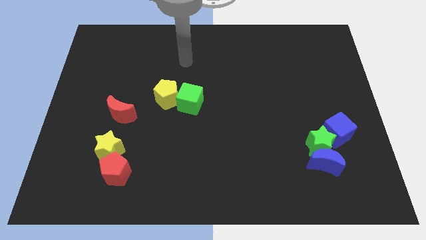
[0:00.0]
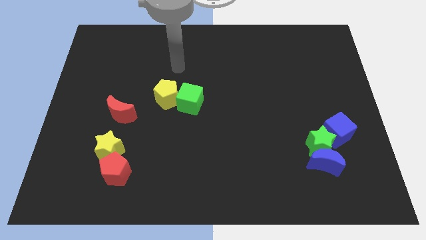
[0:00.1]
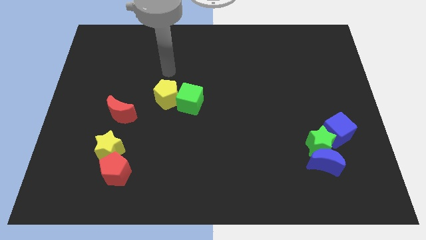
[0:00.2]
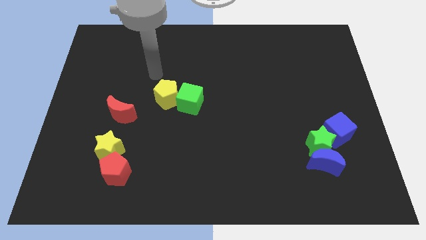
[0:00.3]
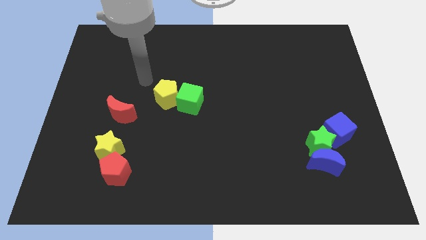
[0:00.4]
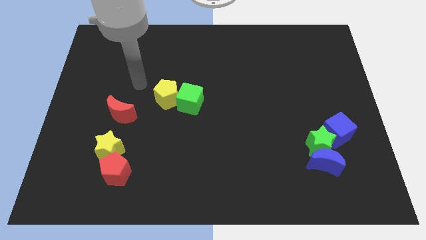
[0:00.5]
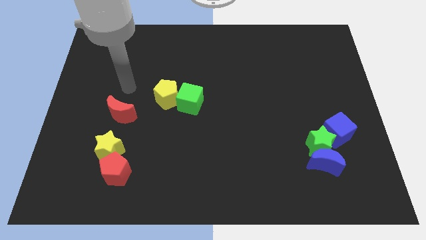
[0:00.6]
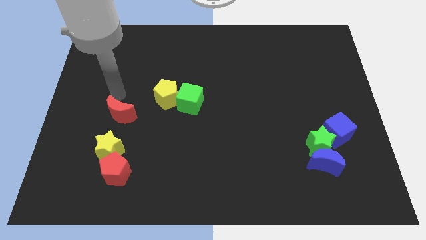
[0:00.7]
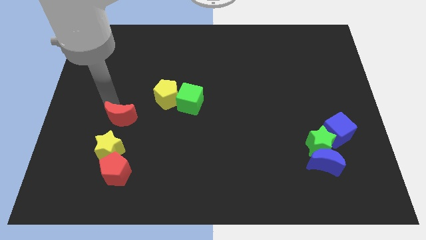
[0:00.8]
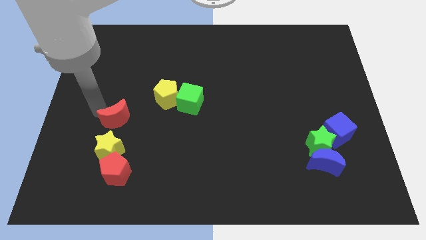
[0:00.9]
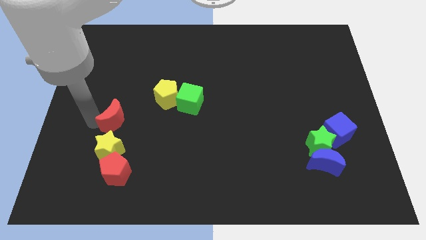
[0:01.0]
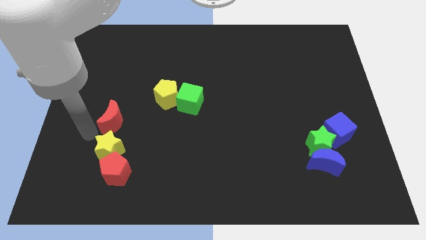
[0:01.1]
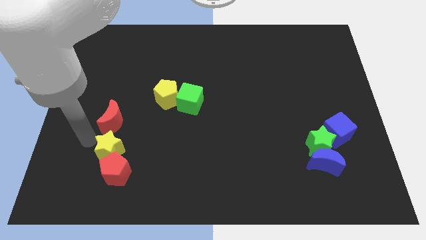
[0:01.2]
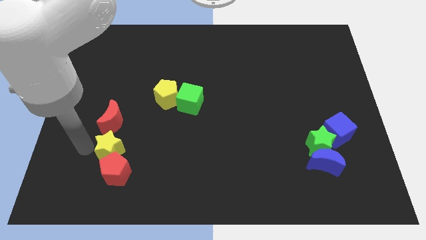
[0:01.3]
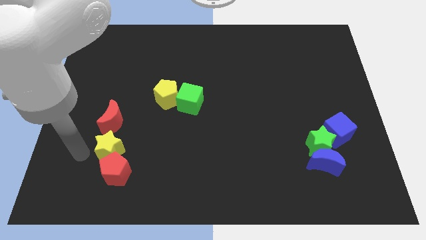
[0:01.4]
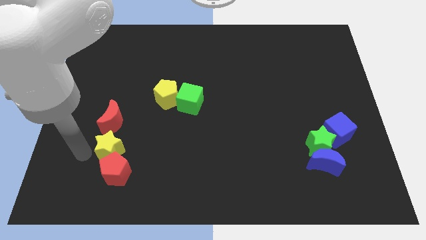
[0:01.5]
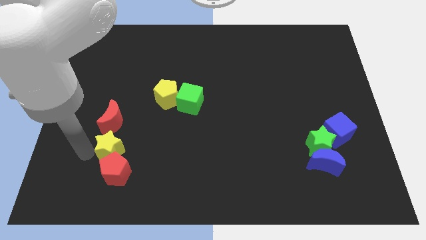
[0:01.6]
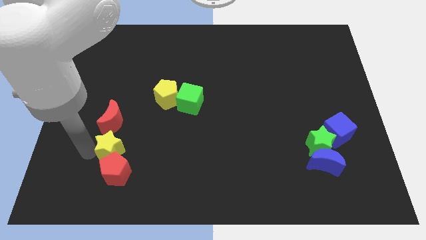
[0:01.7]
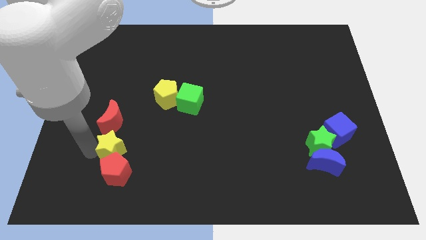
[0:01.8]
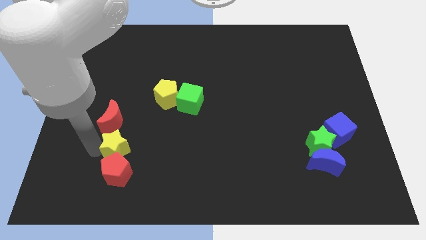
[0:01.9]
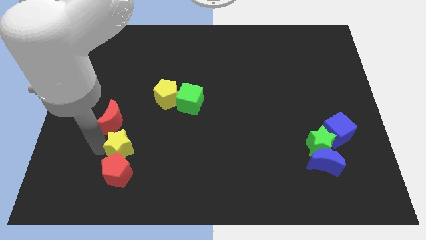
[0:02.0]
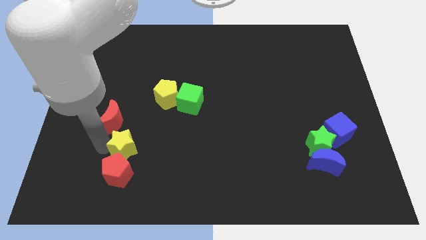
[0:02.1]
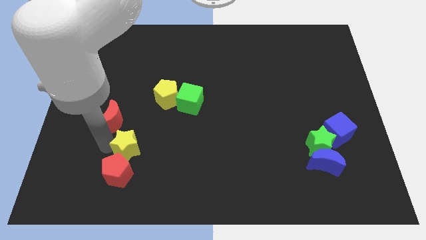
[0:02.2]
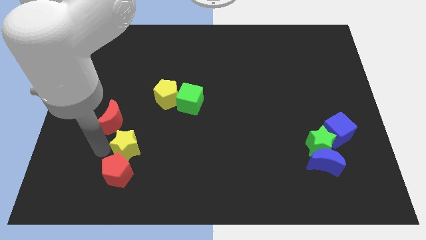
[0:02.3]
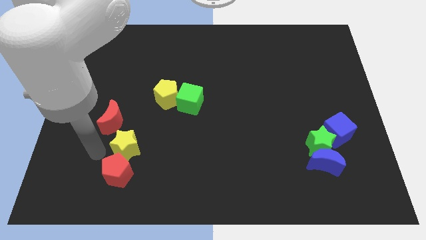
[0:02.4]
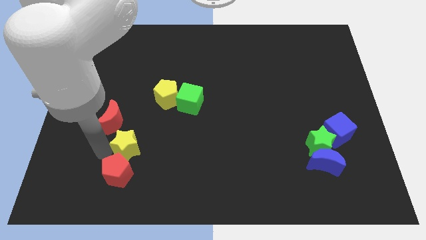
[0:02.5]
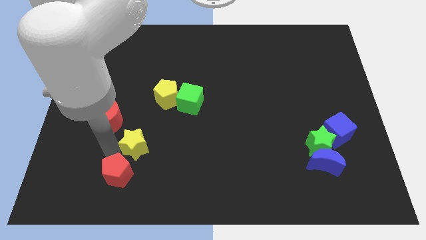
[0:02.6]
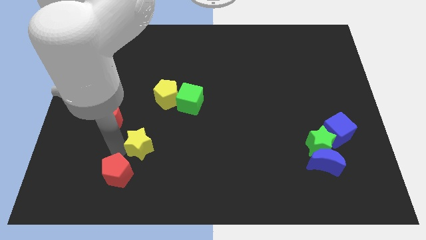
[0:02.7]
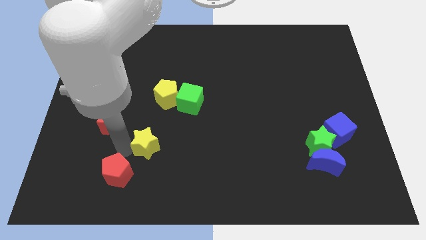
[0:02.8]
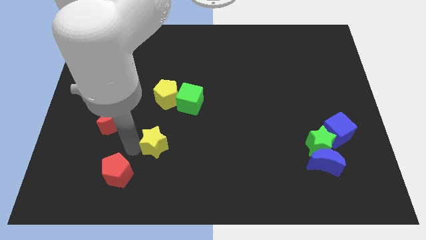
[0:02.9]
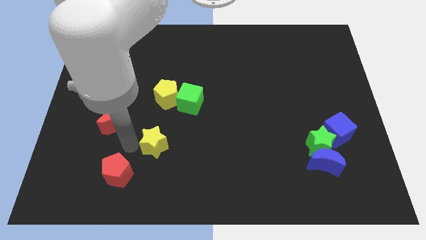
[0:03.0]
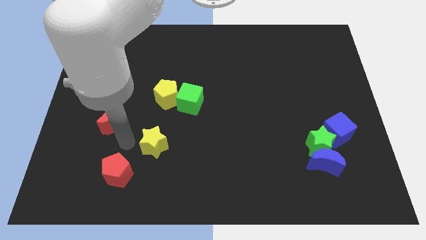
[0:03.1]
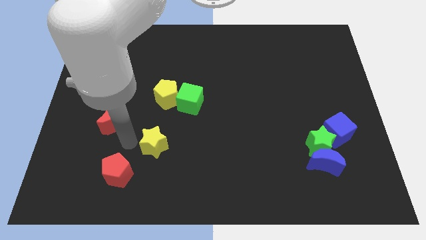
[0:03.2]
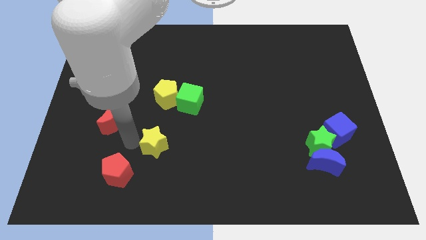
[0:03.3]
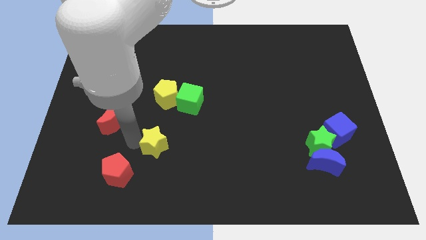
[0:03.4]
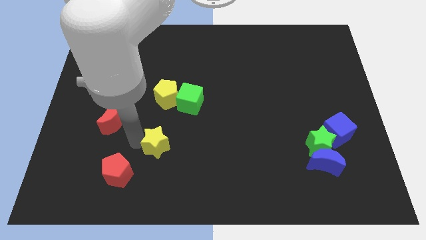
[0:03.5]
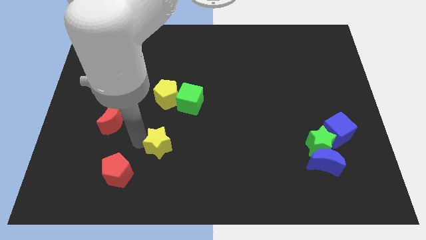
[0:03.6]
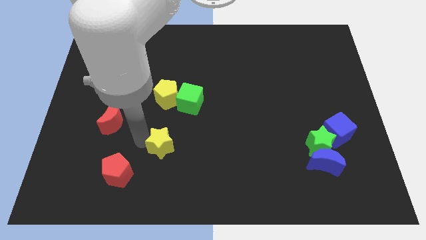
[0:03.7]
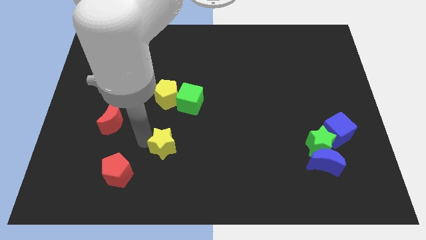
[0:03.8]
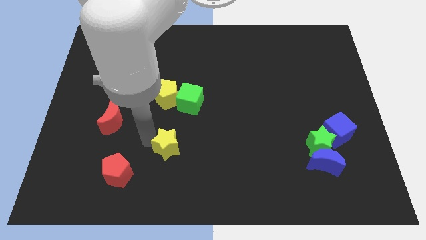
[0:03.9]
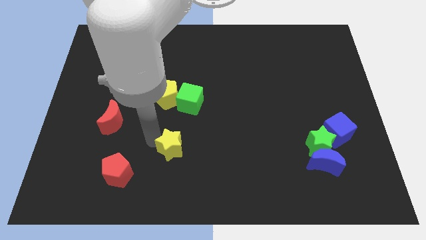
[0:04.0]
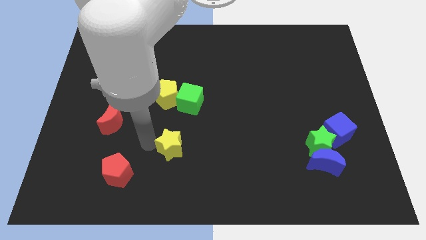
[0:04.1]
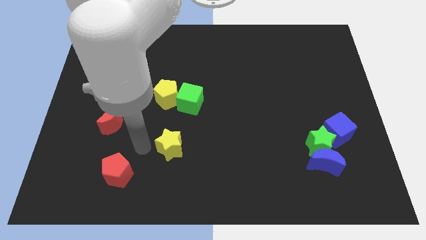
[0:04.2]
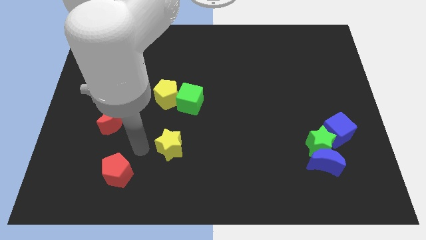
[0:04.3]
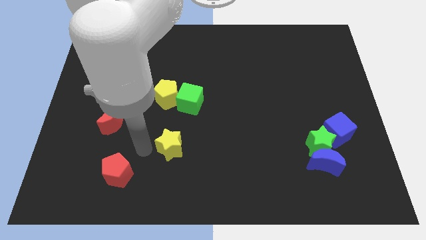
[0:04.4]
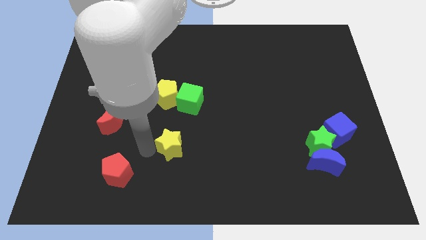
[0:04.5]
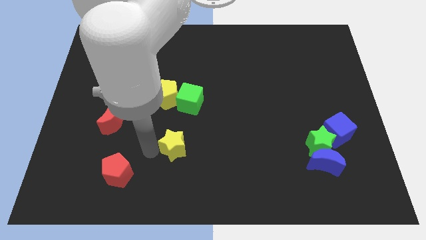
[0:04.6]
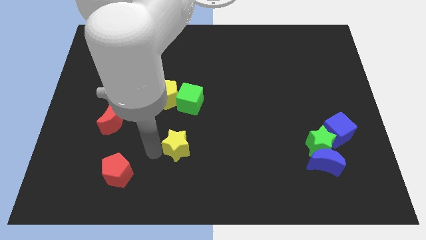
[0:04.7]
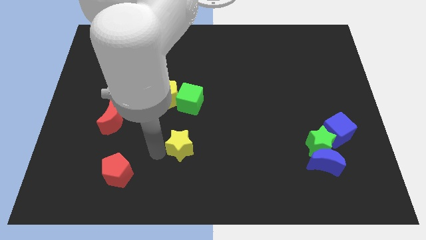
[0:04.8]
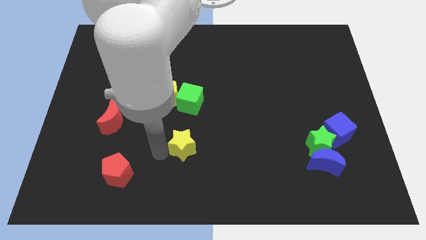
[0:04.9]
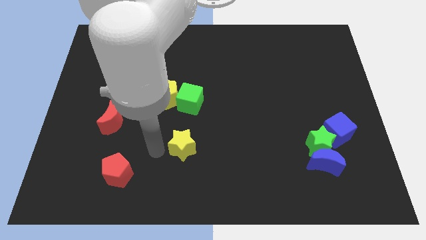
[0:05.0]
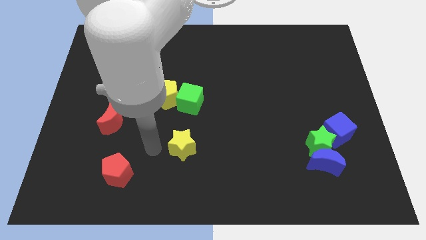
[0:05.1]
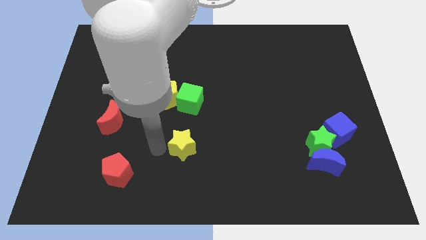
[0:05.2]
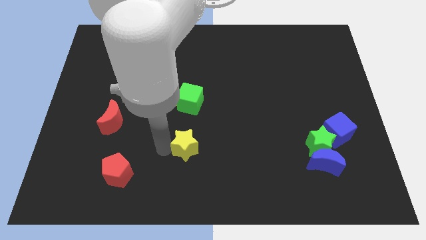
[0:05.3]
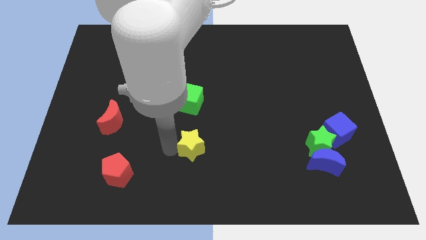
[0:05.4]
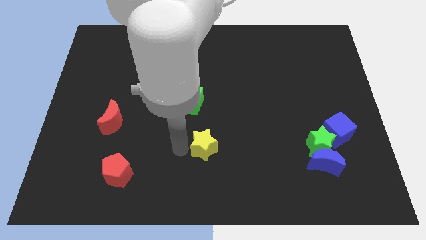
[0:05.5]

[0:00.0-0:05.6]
slide the yellow star right

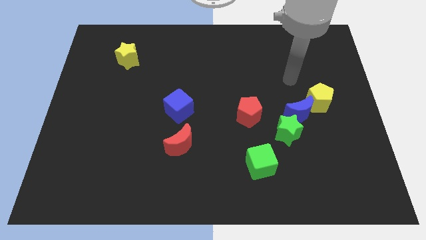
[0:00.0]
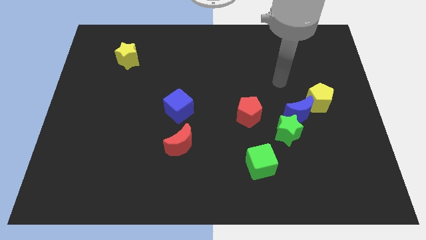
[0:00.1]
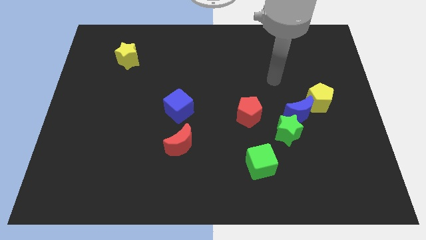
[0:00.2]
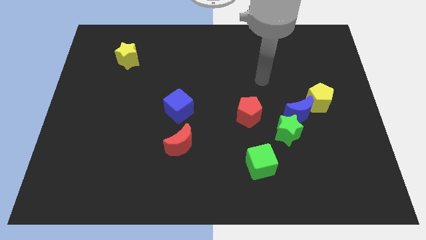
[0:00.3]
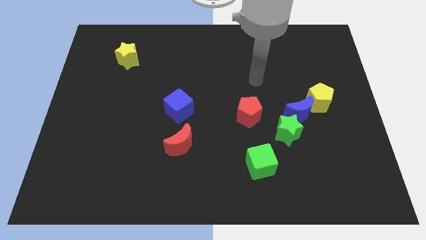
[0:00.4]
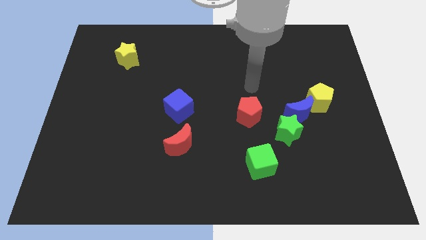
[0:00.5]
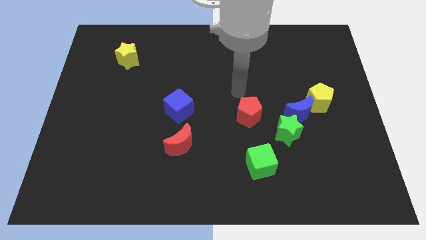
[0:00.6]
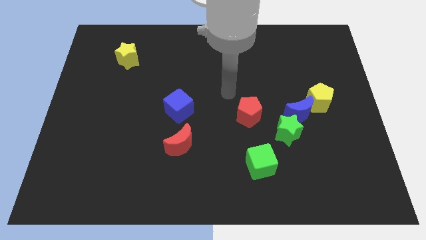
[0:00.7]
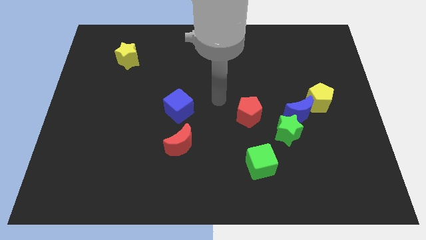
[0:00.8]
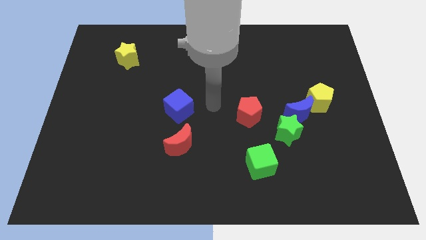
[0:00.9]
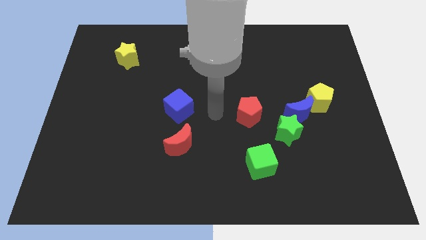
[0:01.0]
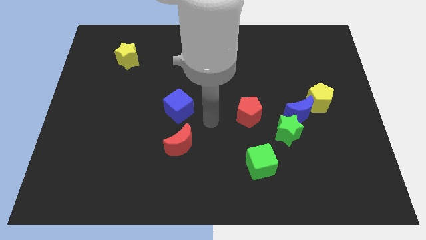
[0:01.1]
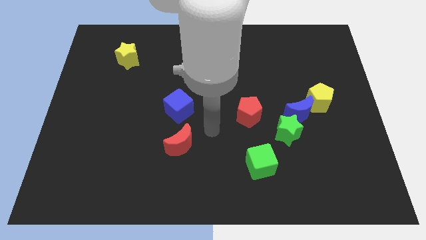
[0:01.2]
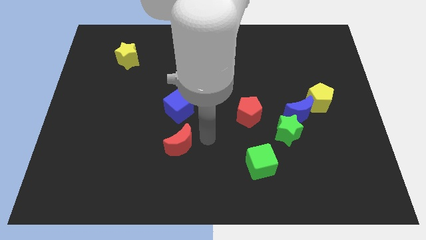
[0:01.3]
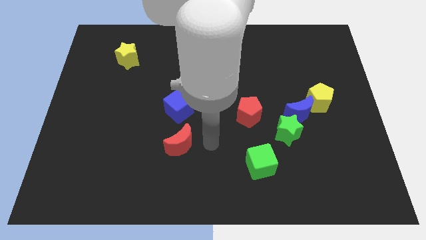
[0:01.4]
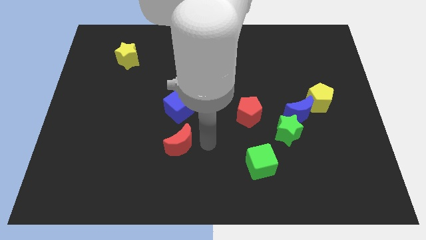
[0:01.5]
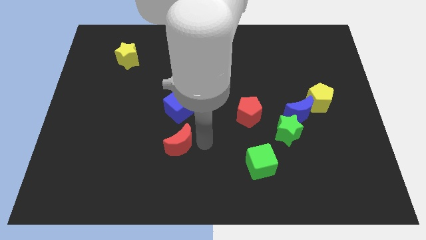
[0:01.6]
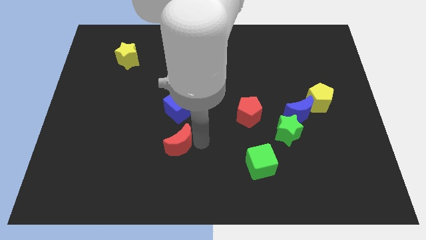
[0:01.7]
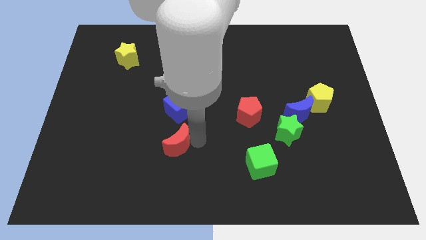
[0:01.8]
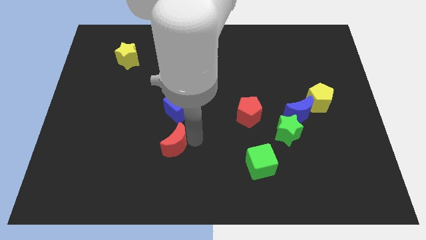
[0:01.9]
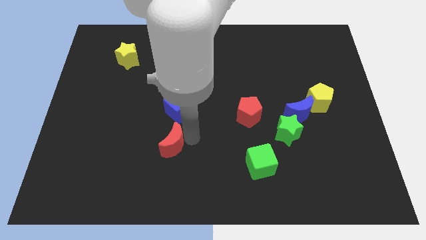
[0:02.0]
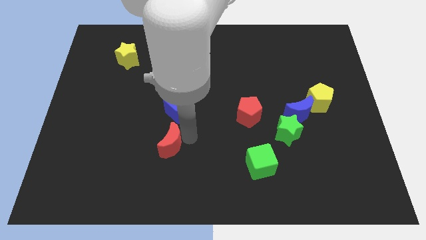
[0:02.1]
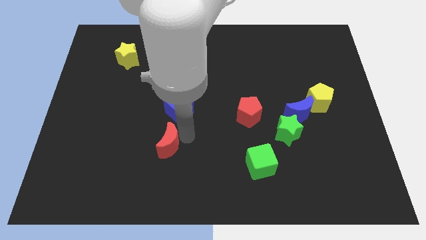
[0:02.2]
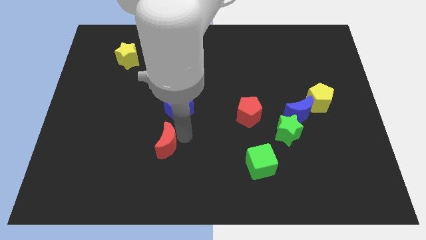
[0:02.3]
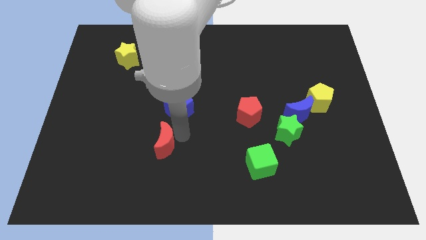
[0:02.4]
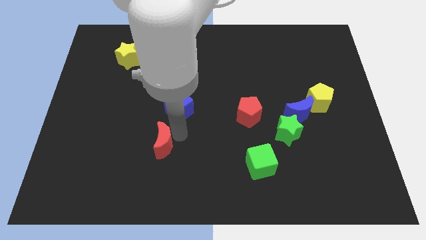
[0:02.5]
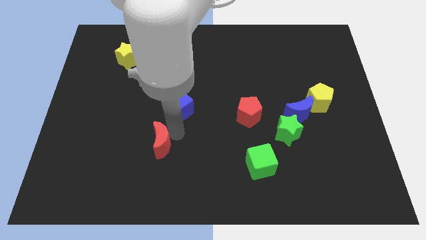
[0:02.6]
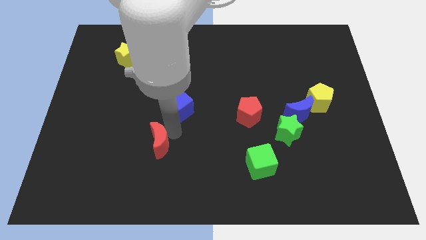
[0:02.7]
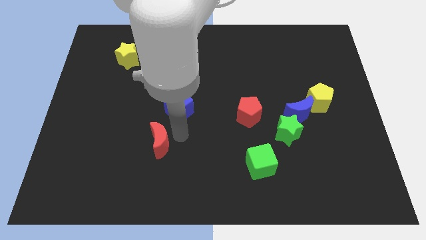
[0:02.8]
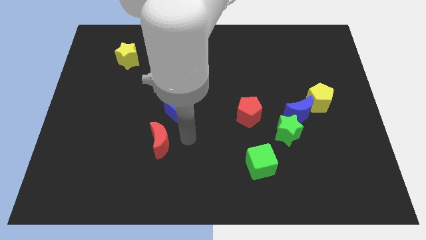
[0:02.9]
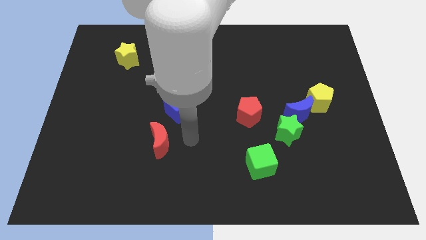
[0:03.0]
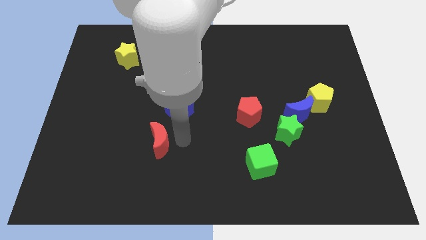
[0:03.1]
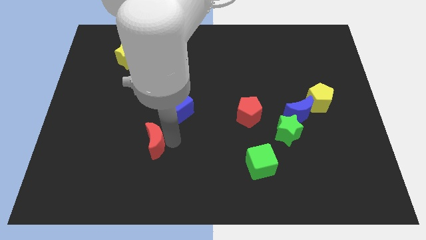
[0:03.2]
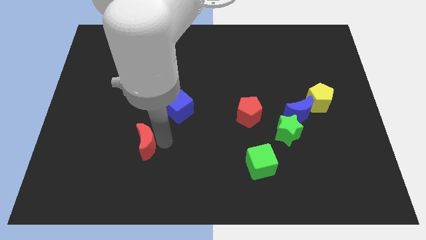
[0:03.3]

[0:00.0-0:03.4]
slide the red moon left a little
